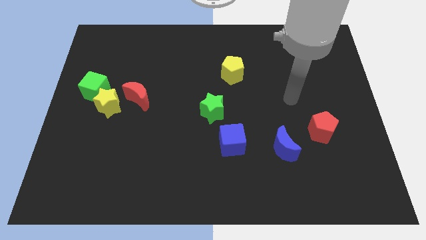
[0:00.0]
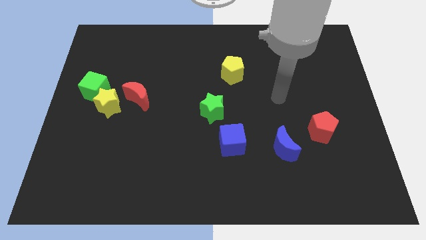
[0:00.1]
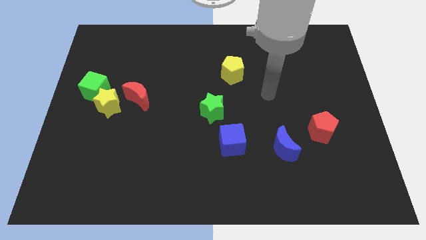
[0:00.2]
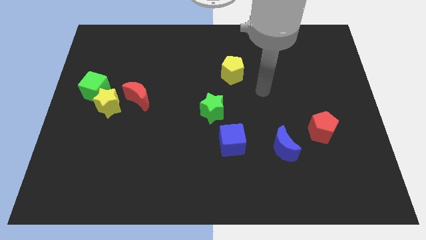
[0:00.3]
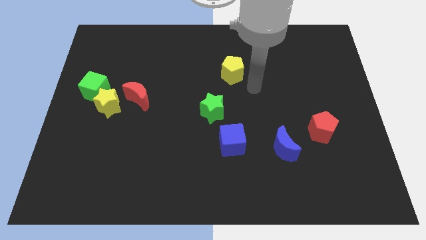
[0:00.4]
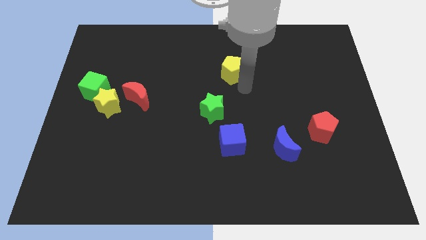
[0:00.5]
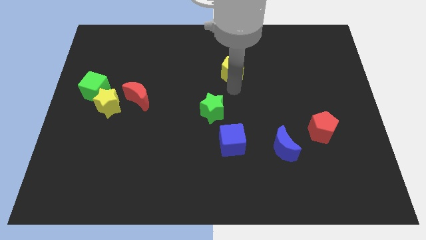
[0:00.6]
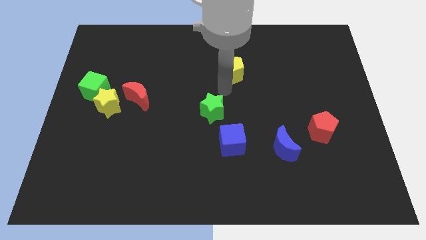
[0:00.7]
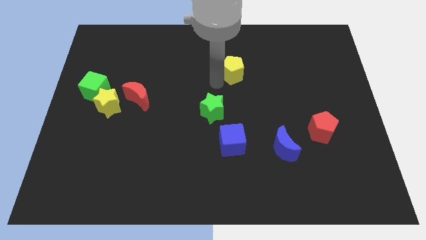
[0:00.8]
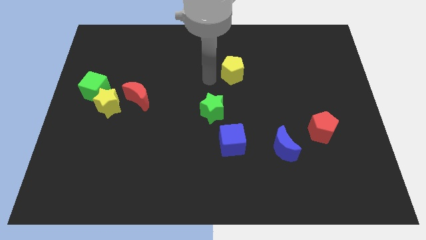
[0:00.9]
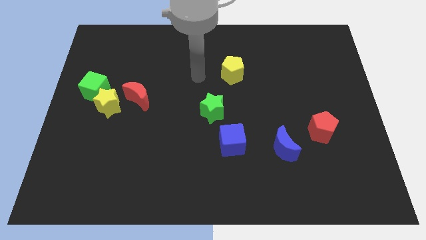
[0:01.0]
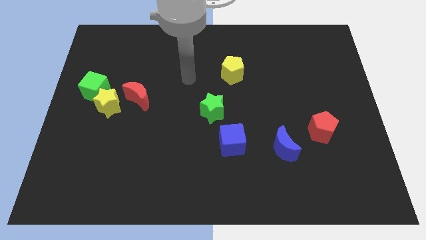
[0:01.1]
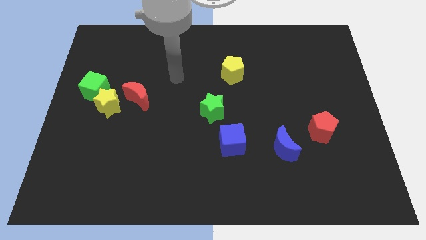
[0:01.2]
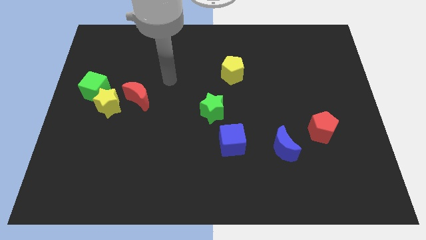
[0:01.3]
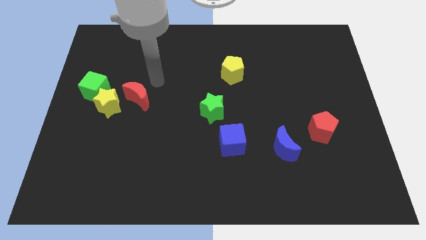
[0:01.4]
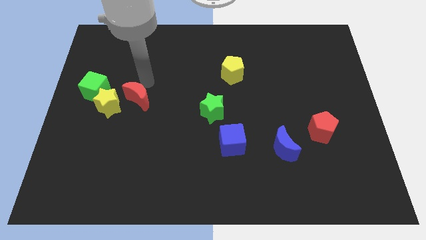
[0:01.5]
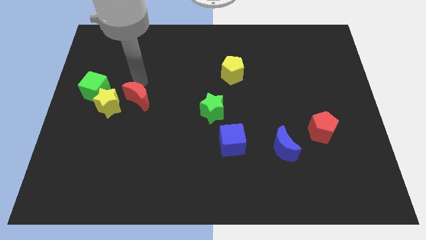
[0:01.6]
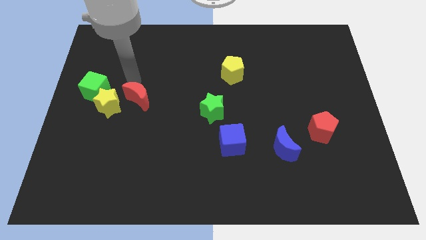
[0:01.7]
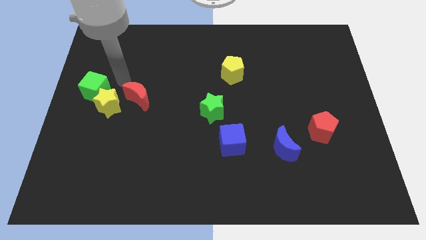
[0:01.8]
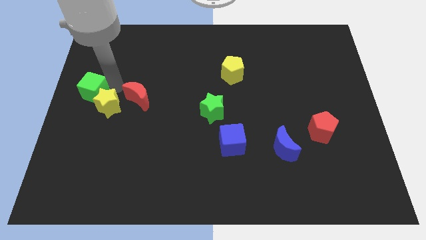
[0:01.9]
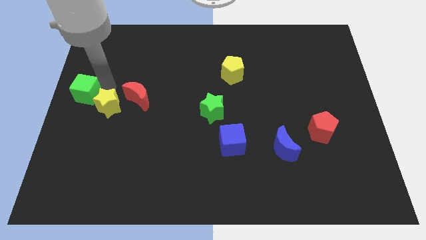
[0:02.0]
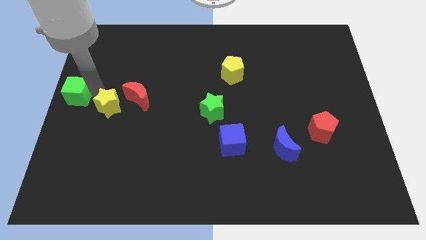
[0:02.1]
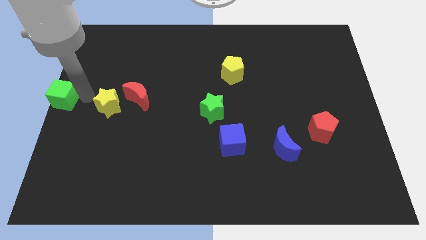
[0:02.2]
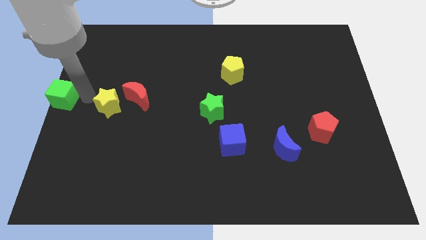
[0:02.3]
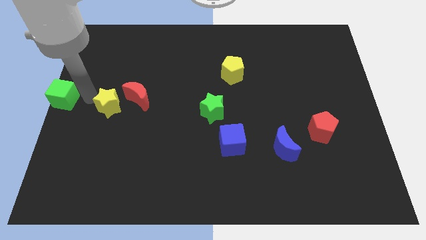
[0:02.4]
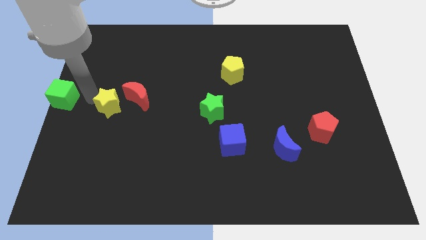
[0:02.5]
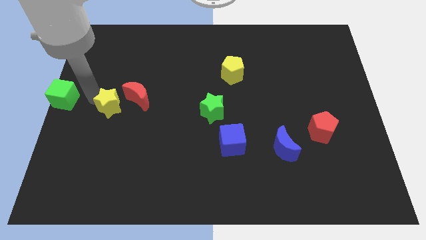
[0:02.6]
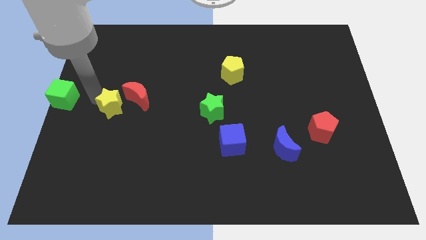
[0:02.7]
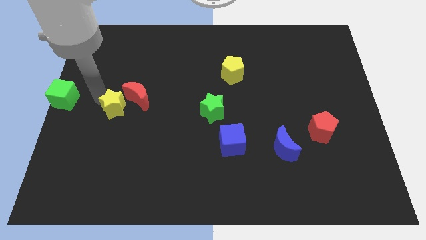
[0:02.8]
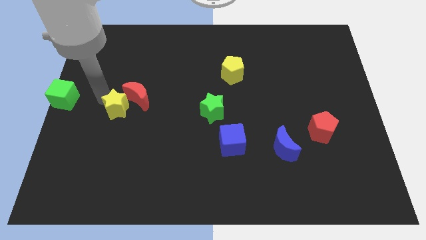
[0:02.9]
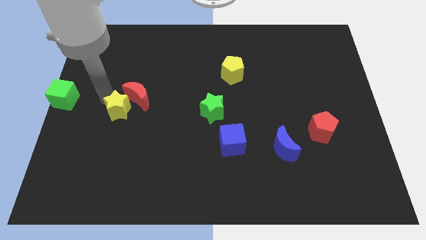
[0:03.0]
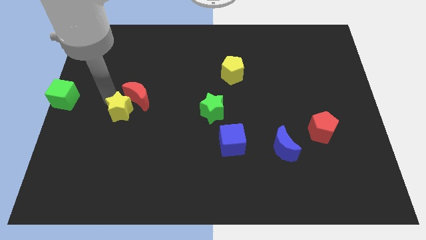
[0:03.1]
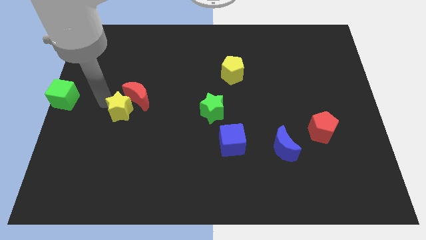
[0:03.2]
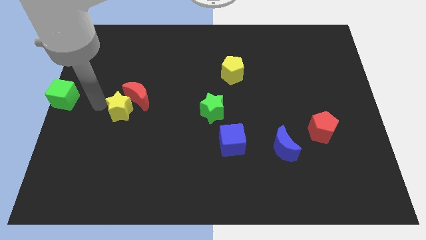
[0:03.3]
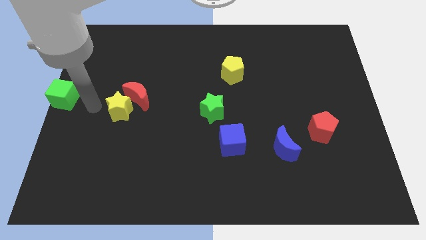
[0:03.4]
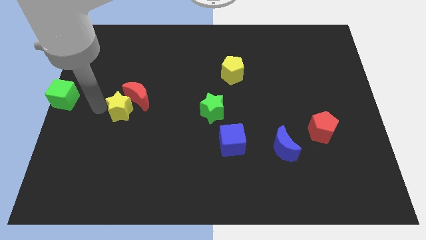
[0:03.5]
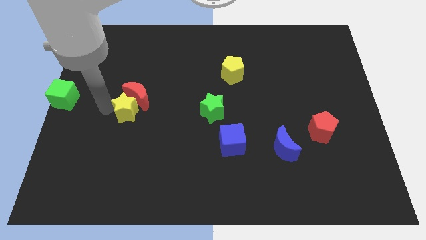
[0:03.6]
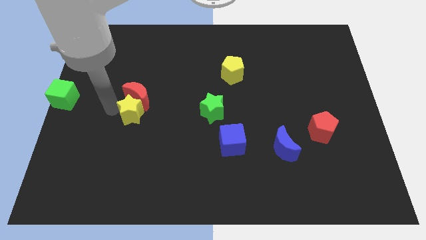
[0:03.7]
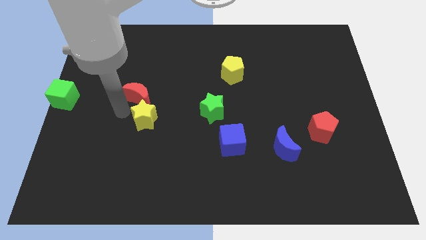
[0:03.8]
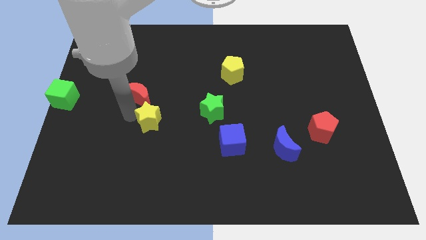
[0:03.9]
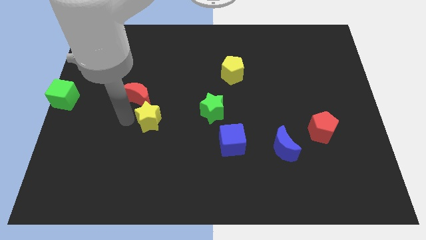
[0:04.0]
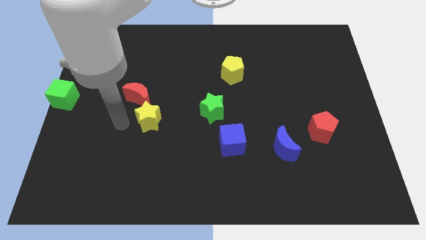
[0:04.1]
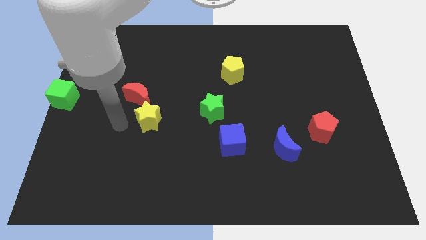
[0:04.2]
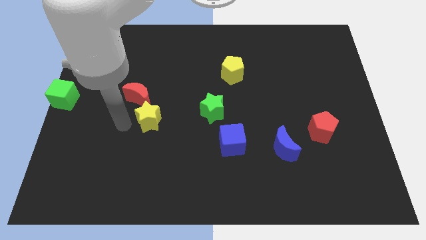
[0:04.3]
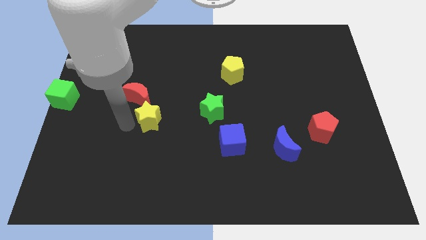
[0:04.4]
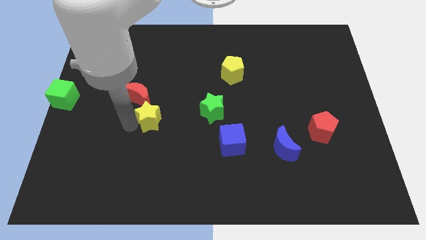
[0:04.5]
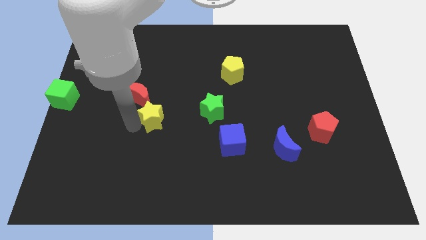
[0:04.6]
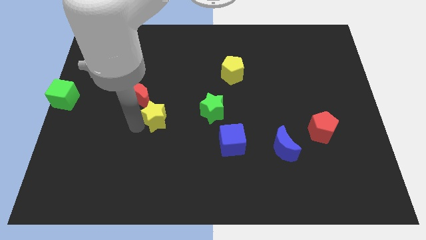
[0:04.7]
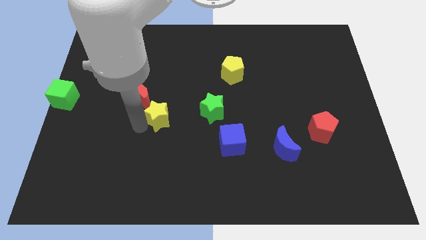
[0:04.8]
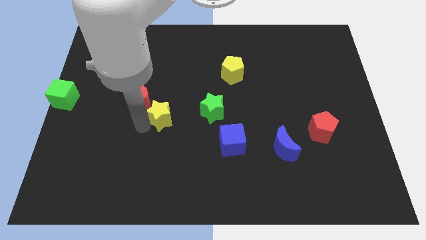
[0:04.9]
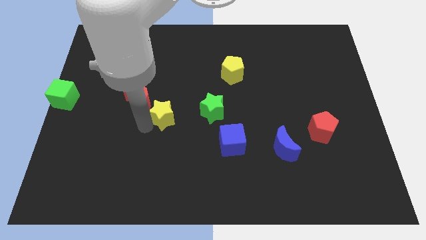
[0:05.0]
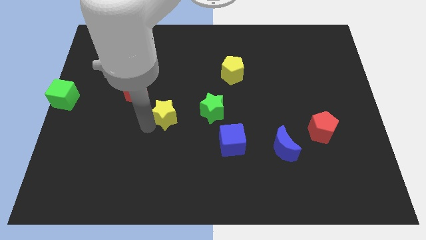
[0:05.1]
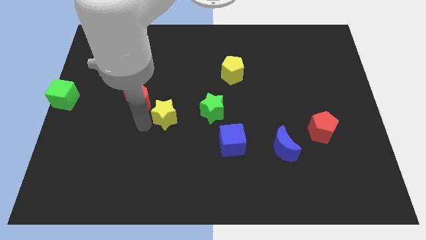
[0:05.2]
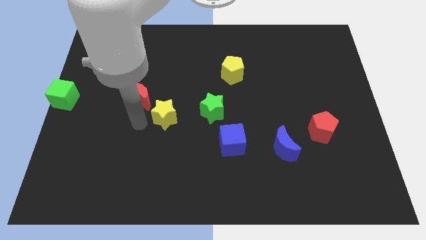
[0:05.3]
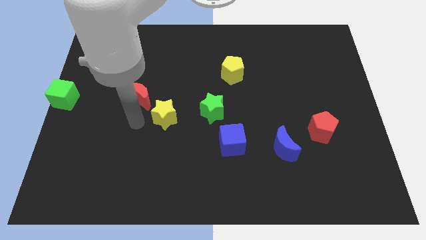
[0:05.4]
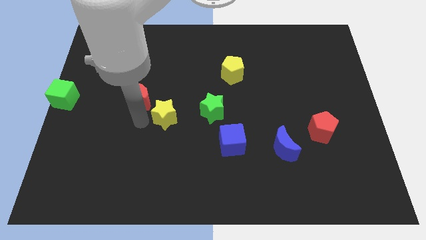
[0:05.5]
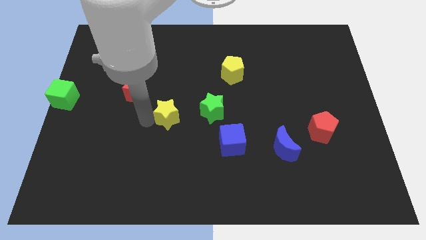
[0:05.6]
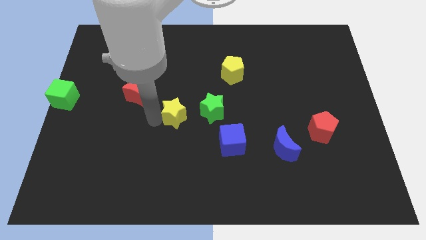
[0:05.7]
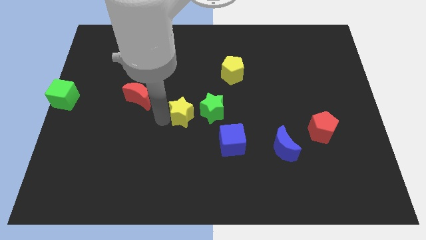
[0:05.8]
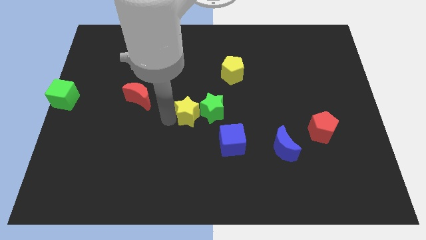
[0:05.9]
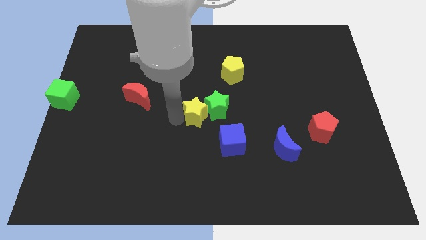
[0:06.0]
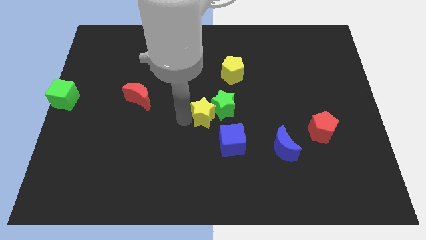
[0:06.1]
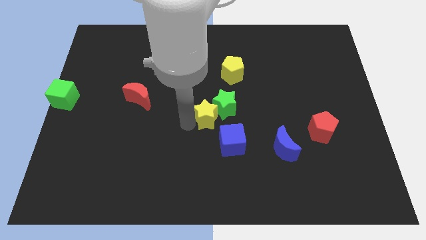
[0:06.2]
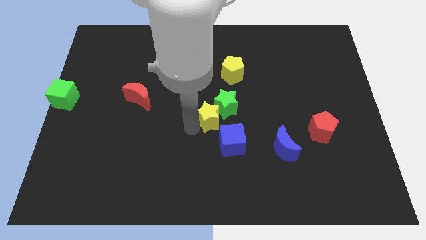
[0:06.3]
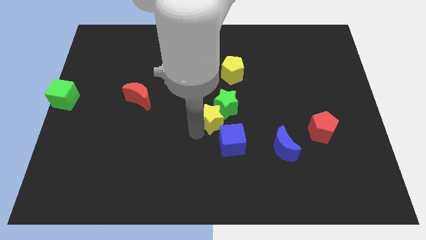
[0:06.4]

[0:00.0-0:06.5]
move the yellow star to the top side of the blue cube

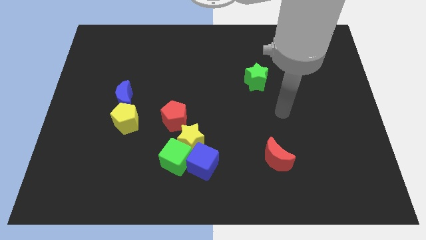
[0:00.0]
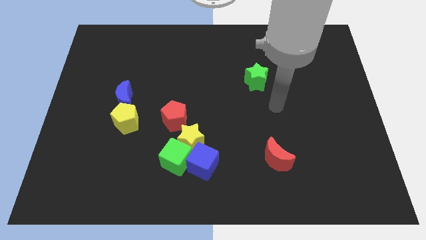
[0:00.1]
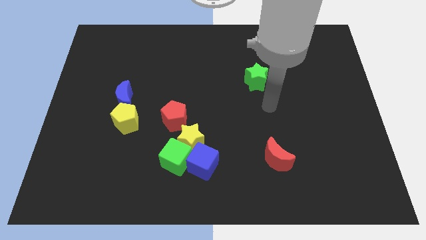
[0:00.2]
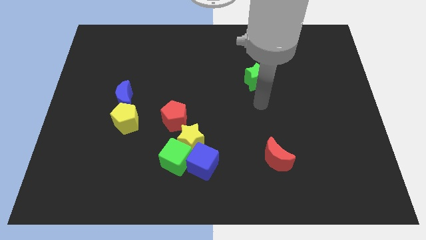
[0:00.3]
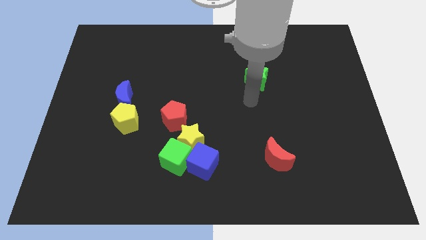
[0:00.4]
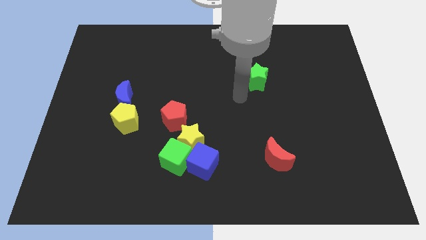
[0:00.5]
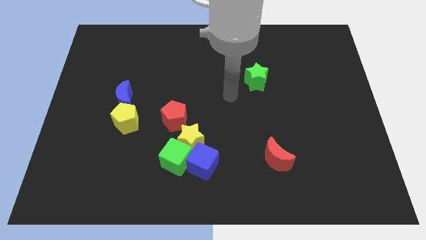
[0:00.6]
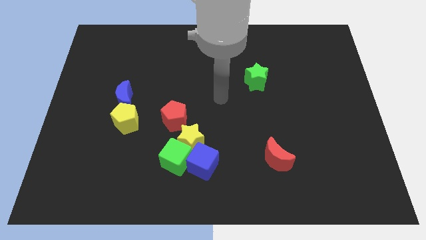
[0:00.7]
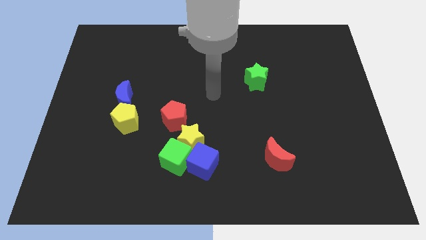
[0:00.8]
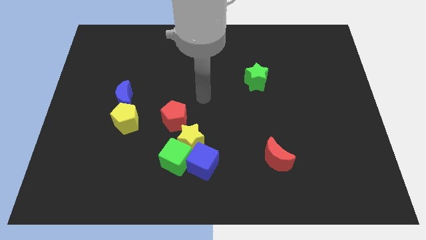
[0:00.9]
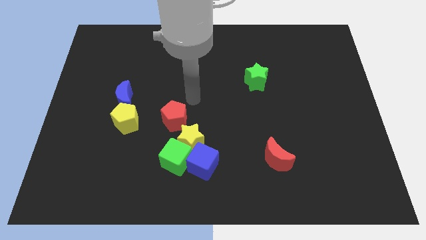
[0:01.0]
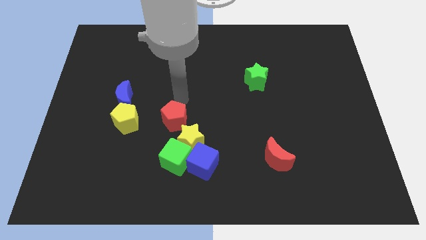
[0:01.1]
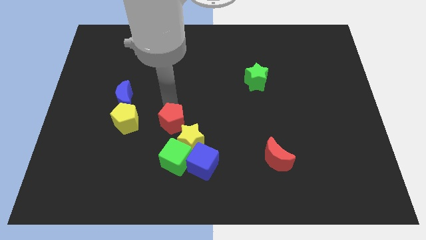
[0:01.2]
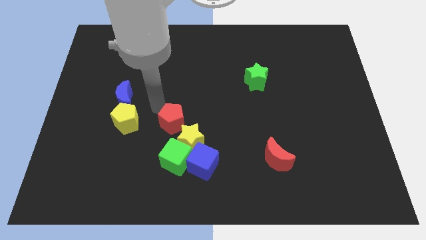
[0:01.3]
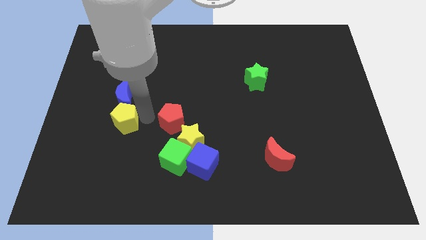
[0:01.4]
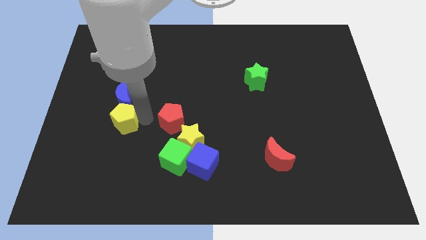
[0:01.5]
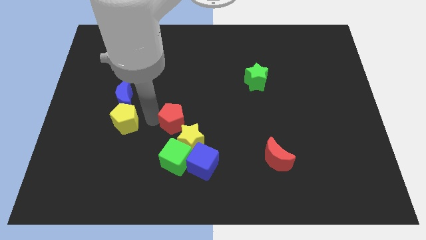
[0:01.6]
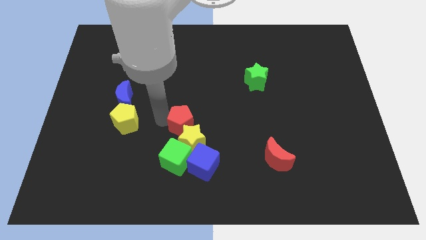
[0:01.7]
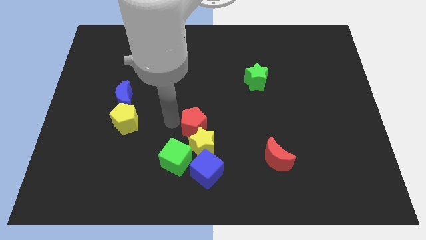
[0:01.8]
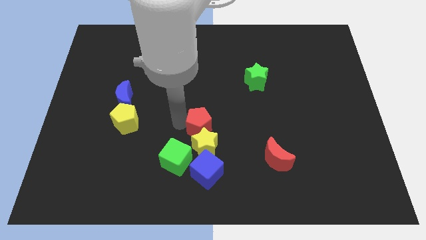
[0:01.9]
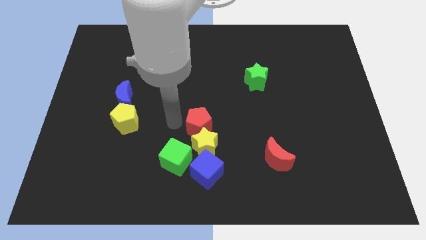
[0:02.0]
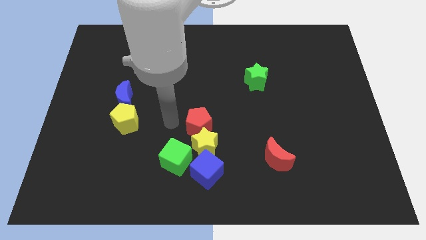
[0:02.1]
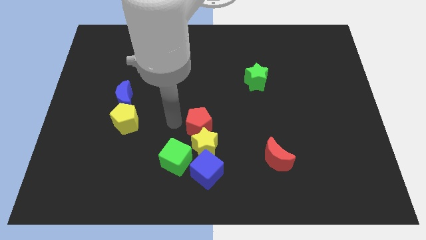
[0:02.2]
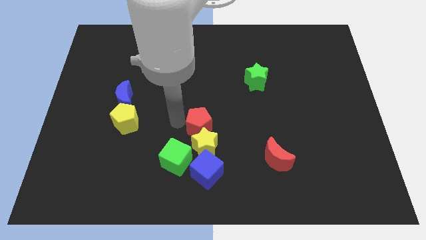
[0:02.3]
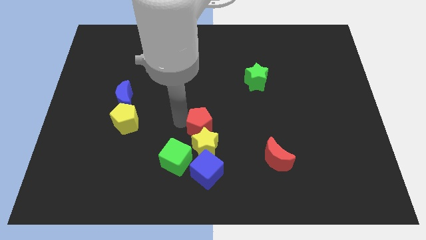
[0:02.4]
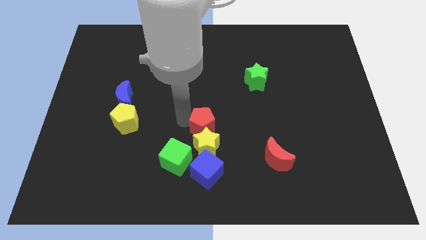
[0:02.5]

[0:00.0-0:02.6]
slide the red pentagon to the top right side of the yellow star
